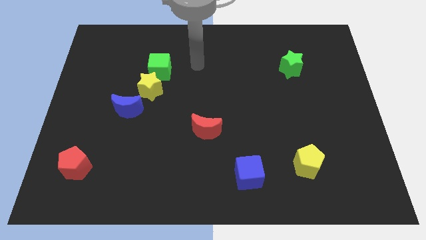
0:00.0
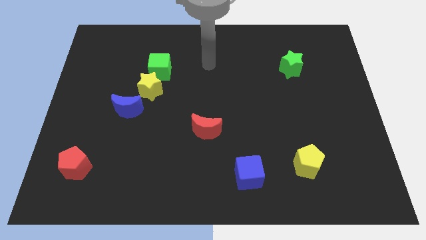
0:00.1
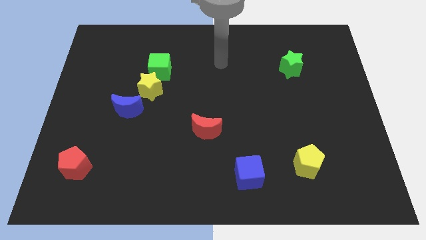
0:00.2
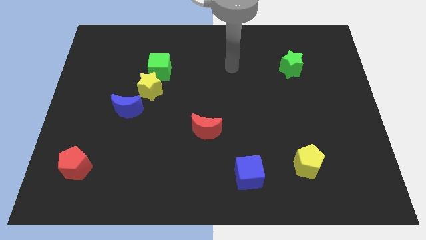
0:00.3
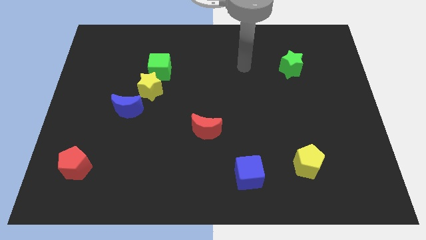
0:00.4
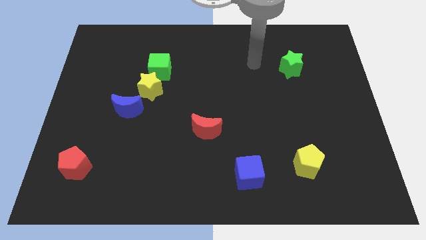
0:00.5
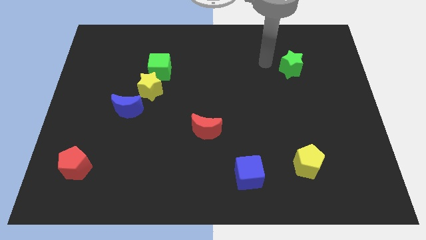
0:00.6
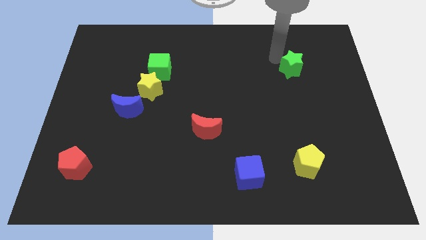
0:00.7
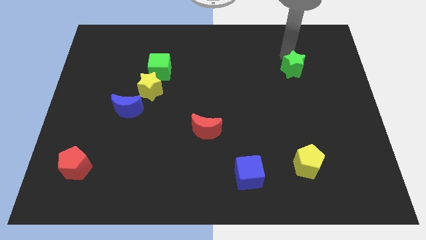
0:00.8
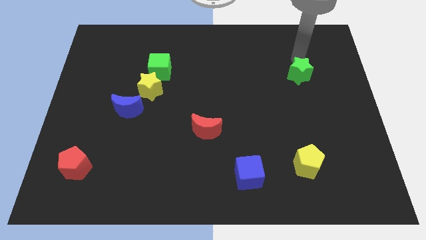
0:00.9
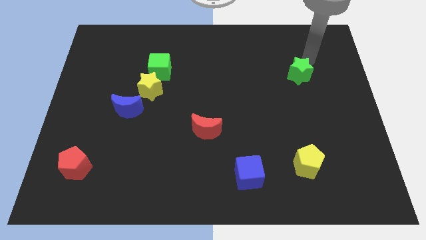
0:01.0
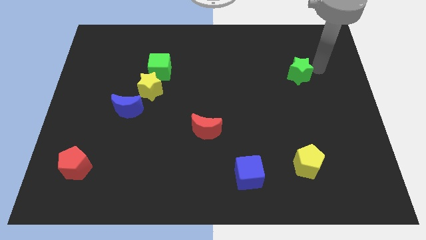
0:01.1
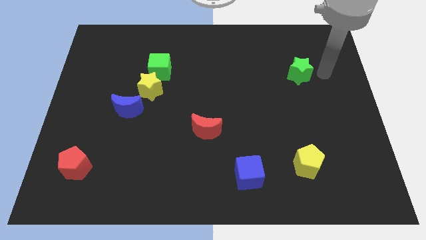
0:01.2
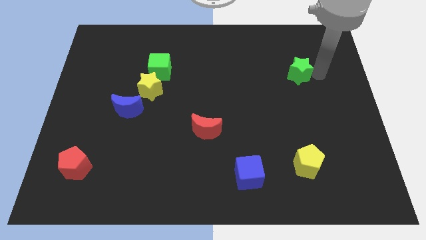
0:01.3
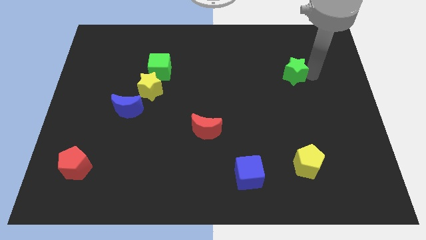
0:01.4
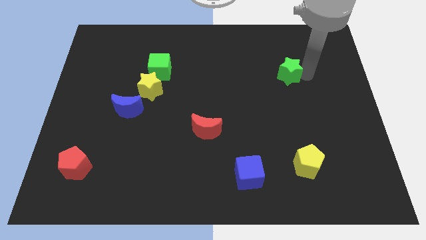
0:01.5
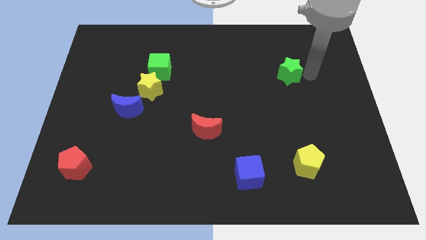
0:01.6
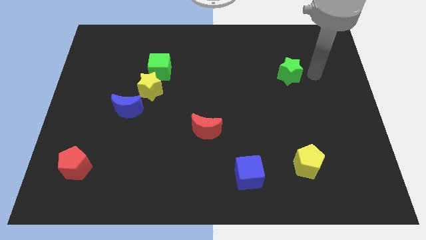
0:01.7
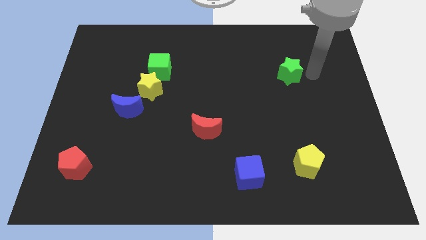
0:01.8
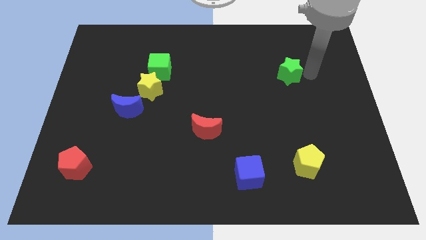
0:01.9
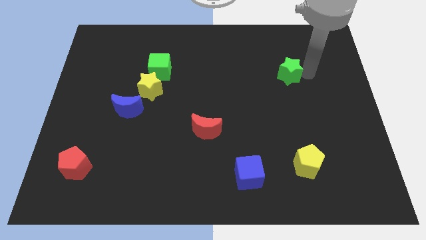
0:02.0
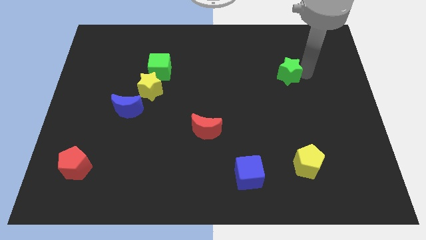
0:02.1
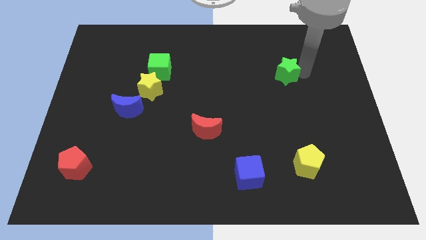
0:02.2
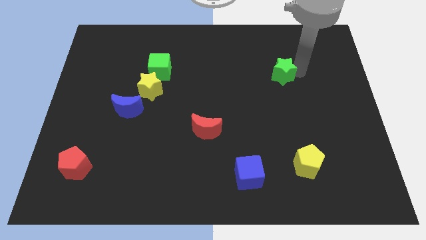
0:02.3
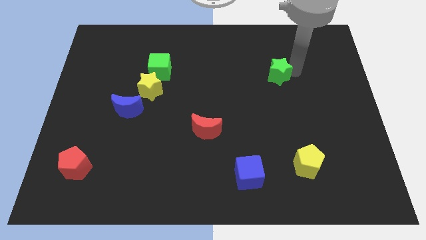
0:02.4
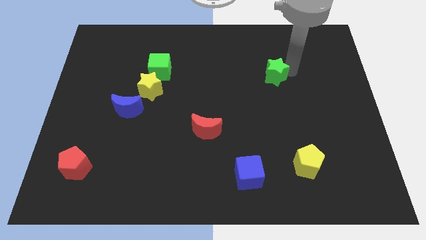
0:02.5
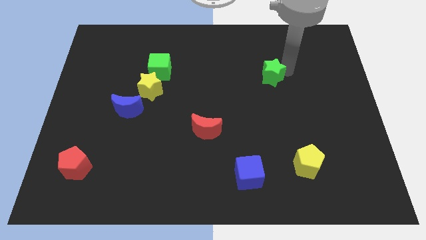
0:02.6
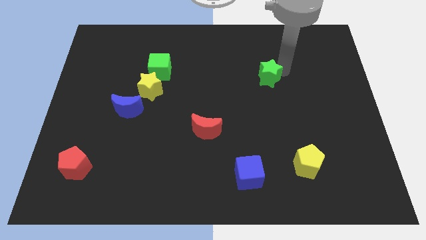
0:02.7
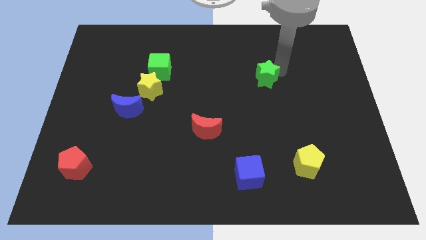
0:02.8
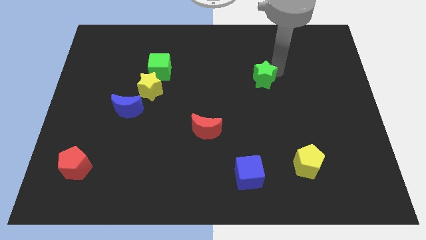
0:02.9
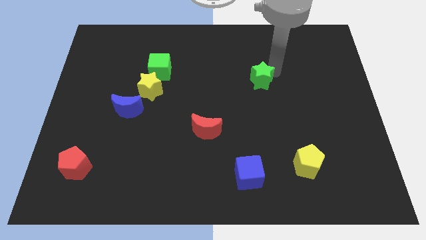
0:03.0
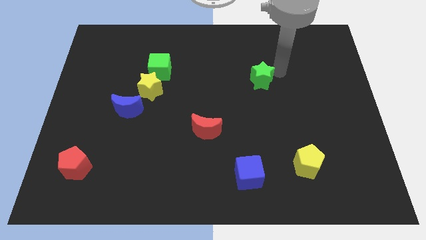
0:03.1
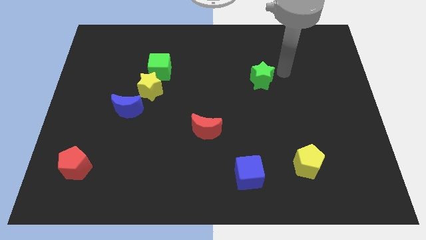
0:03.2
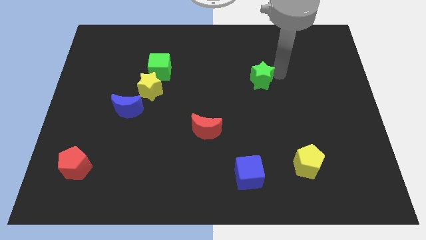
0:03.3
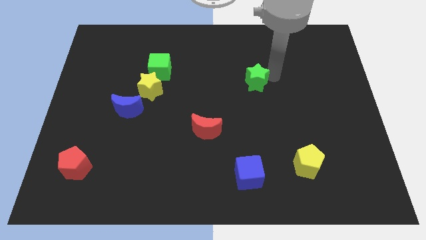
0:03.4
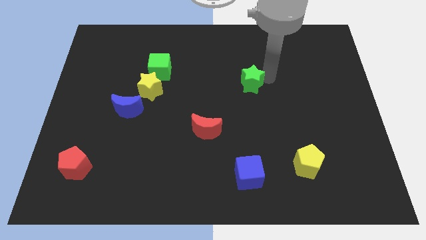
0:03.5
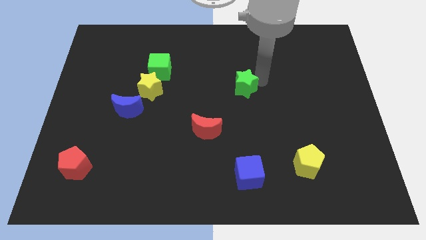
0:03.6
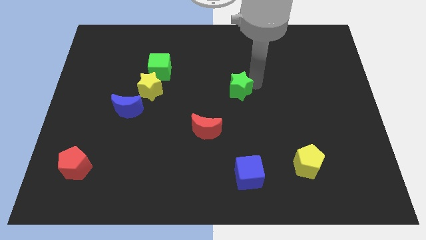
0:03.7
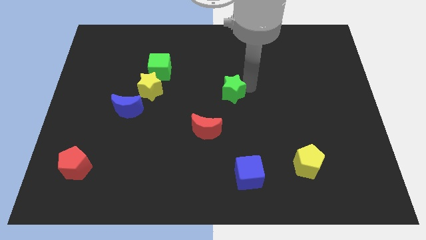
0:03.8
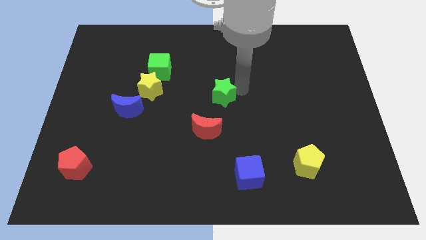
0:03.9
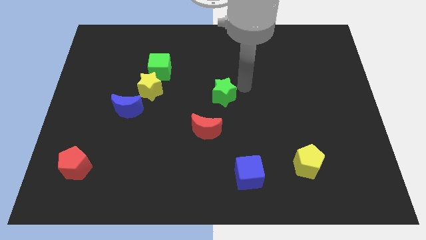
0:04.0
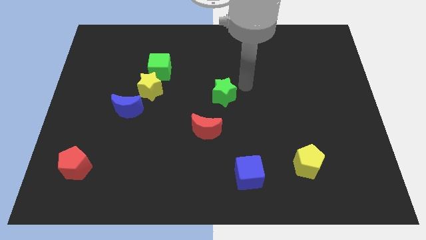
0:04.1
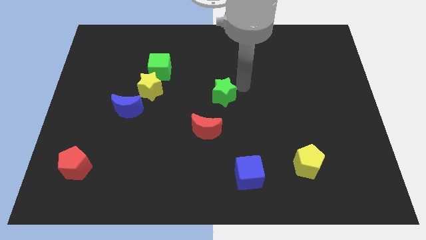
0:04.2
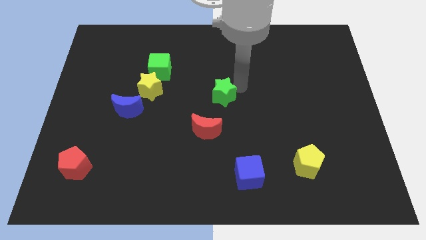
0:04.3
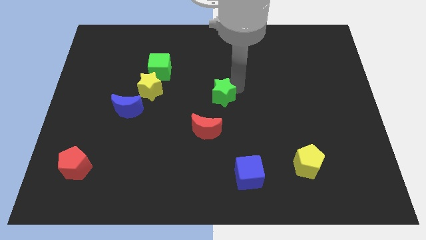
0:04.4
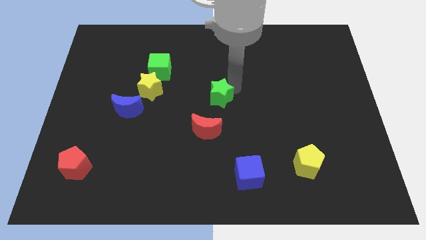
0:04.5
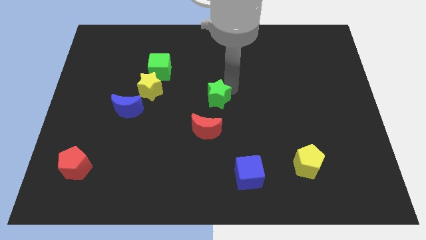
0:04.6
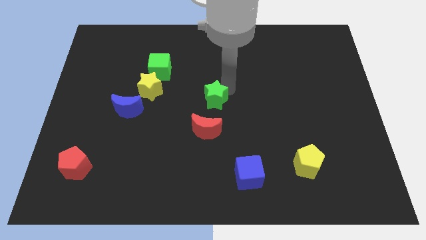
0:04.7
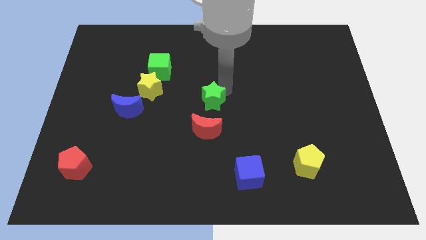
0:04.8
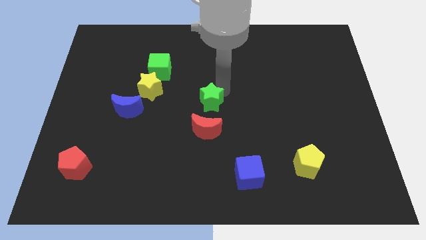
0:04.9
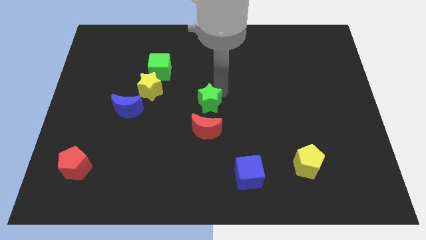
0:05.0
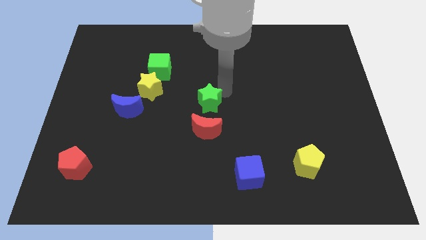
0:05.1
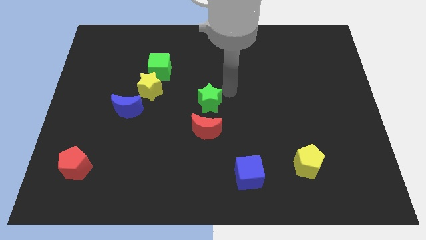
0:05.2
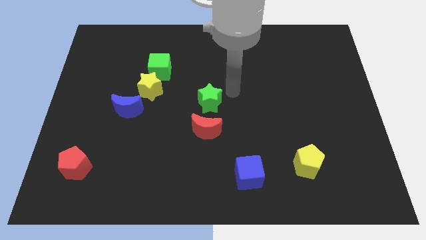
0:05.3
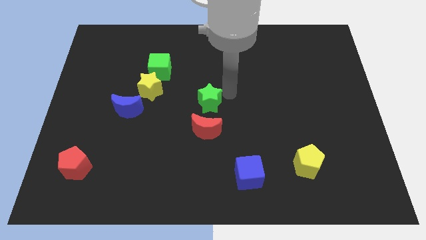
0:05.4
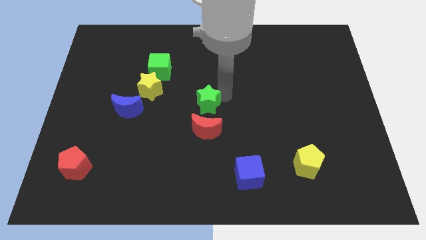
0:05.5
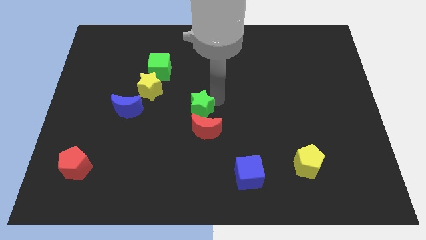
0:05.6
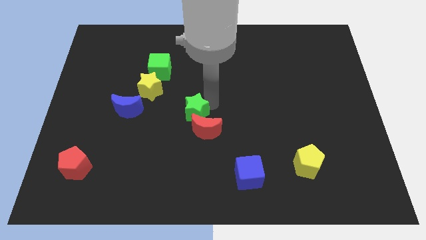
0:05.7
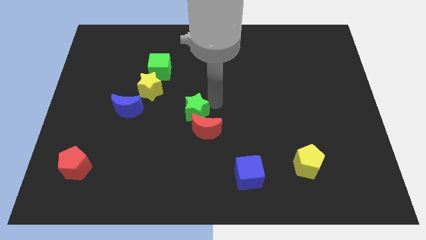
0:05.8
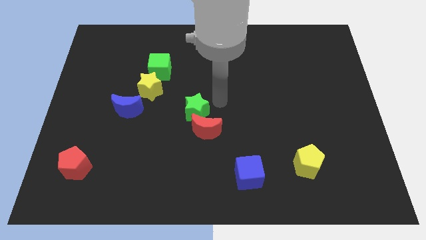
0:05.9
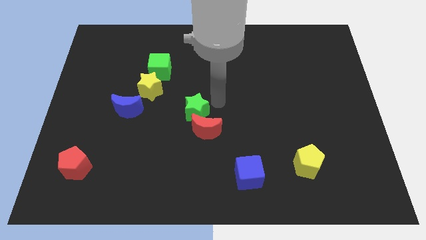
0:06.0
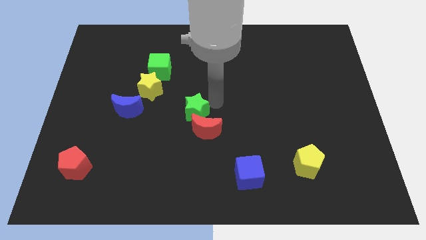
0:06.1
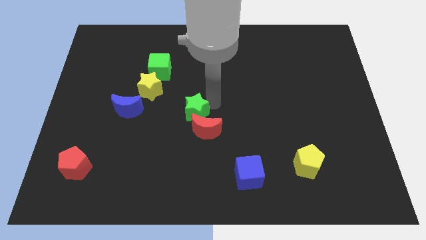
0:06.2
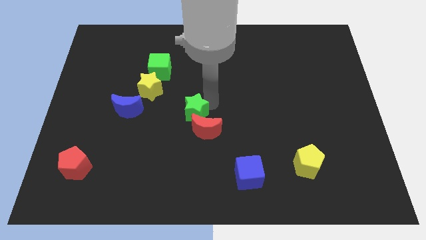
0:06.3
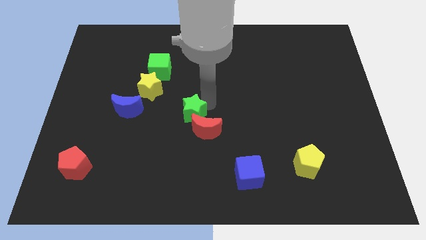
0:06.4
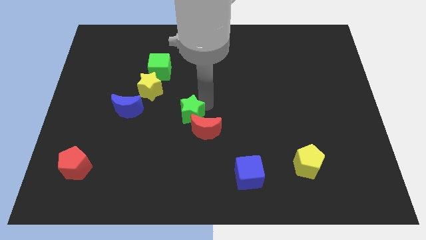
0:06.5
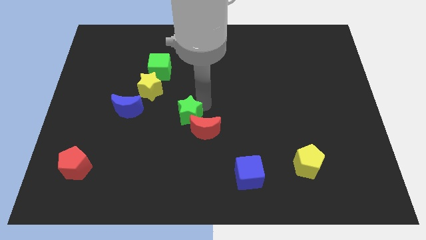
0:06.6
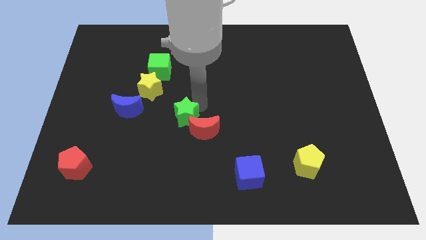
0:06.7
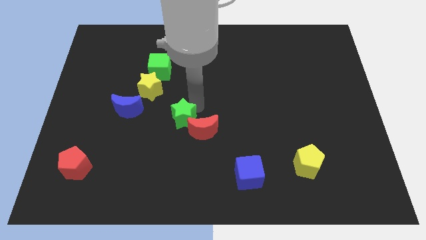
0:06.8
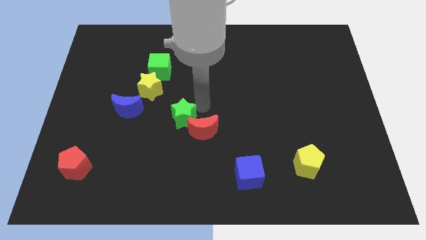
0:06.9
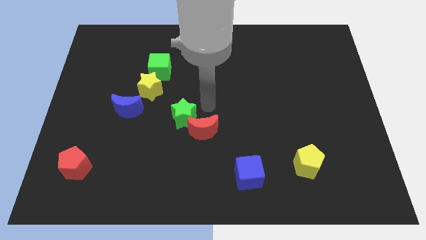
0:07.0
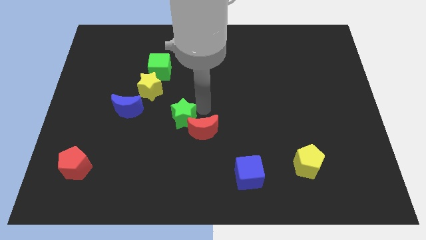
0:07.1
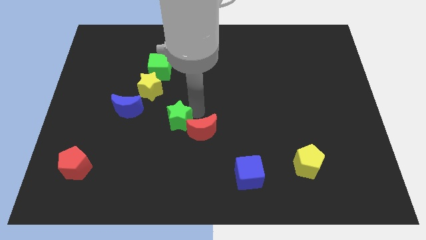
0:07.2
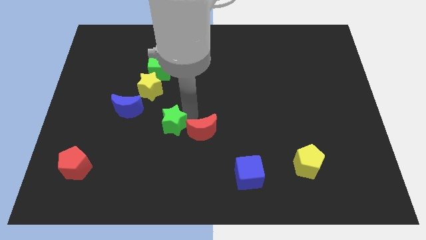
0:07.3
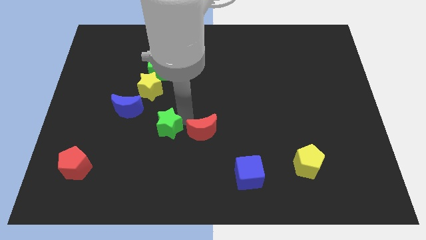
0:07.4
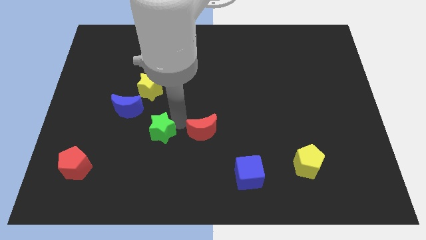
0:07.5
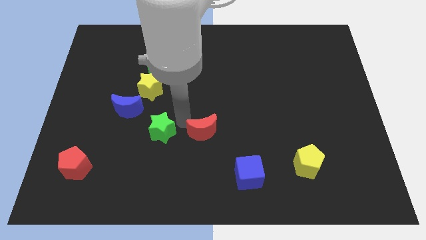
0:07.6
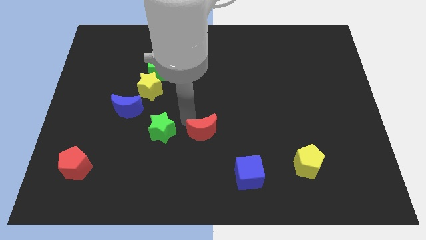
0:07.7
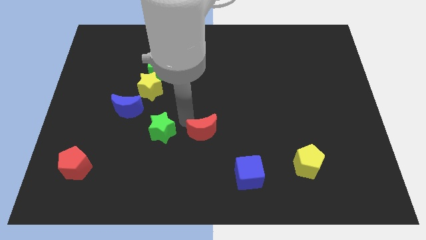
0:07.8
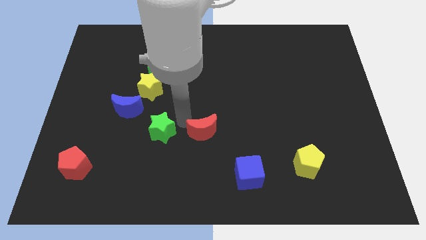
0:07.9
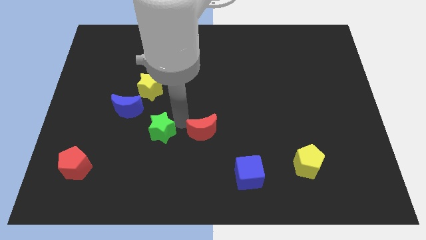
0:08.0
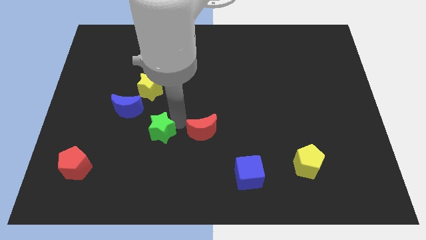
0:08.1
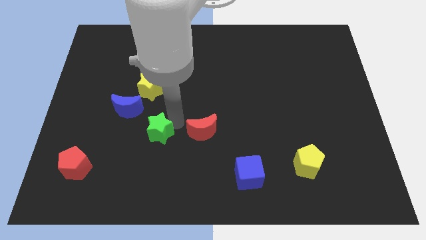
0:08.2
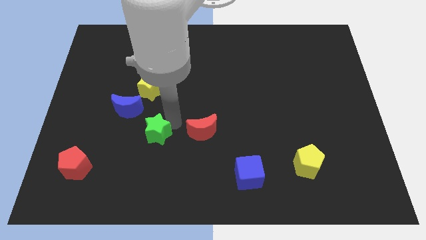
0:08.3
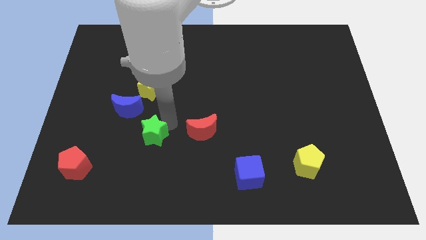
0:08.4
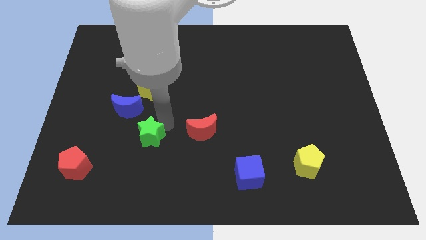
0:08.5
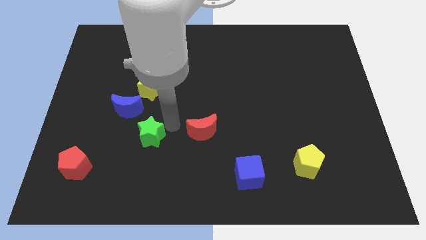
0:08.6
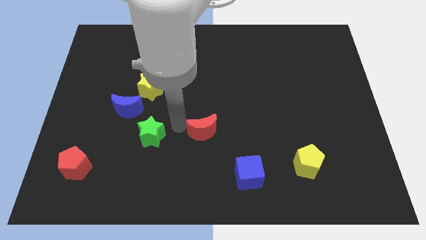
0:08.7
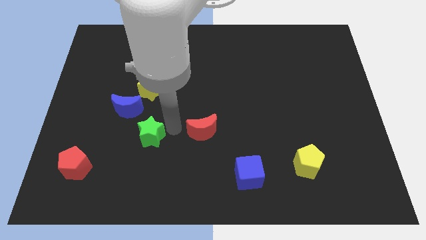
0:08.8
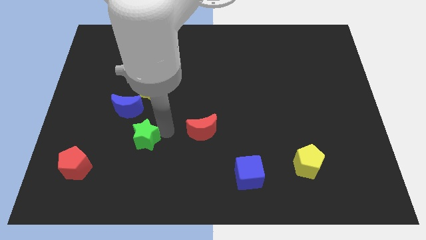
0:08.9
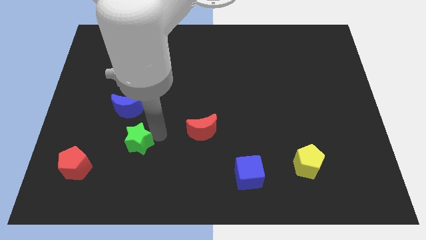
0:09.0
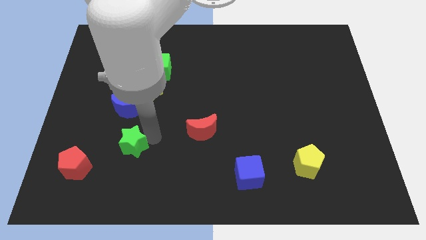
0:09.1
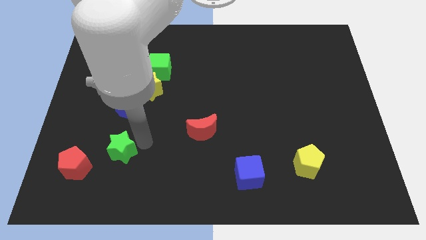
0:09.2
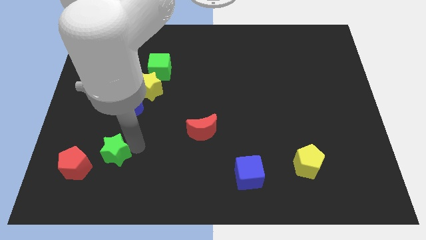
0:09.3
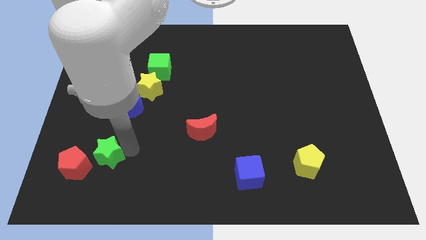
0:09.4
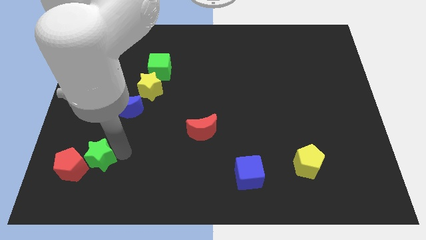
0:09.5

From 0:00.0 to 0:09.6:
slide the green star close to the red pentagon
